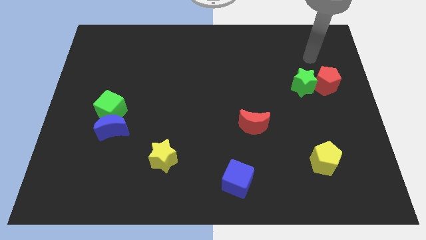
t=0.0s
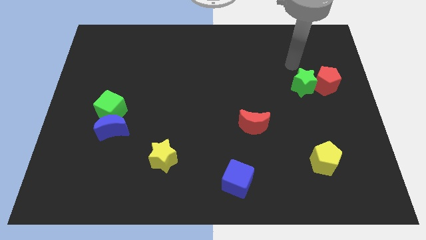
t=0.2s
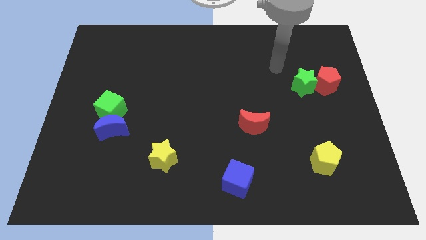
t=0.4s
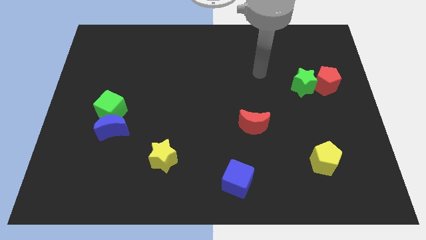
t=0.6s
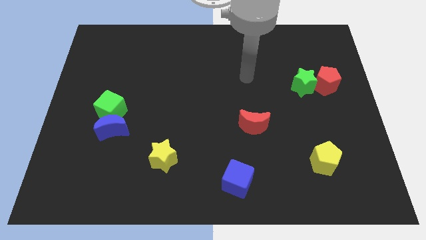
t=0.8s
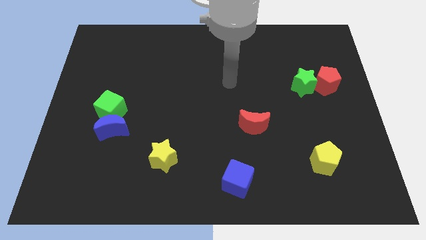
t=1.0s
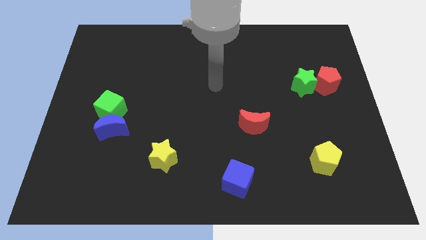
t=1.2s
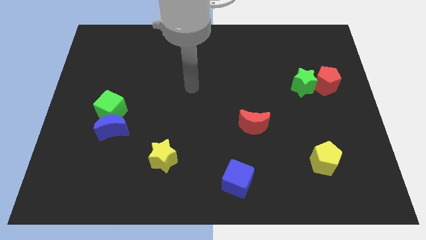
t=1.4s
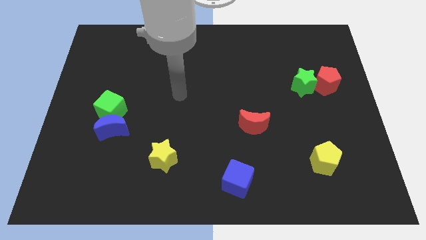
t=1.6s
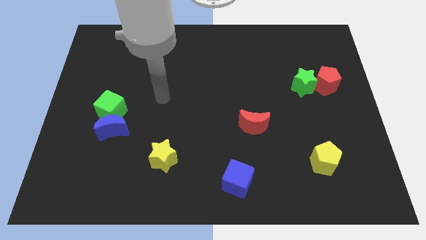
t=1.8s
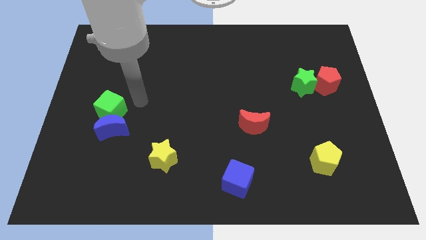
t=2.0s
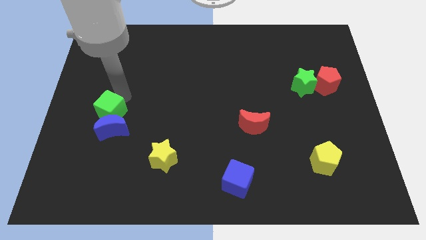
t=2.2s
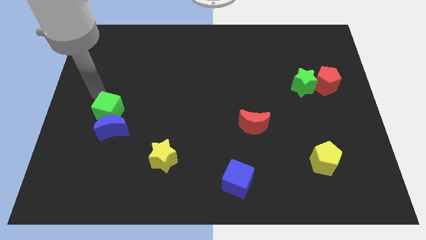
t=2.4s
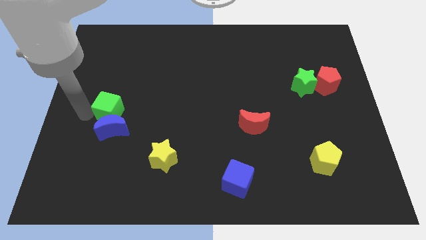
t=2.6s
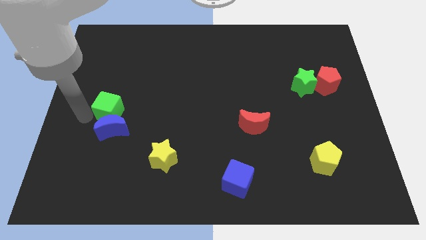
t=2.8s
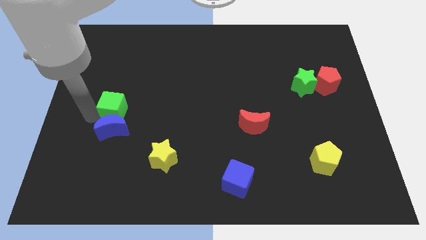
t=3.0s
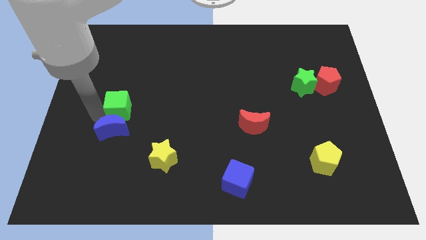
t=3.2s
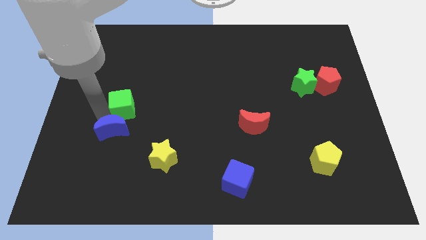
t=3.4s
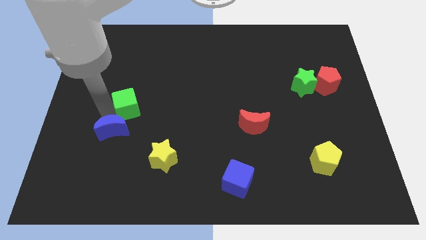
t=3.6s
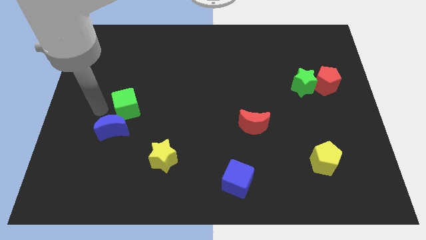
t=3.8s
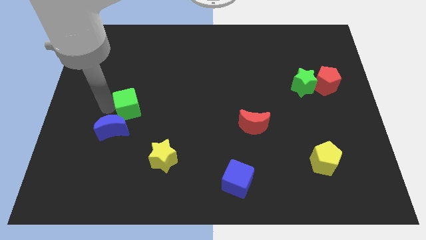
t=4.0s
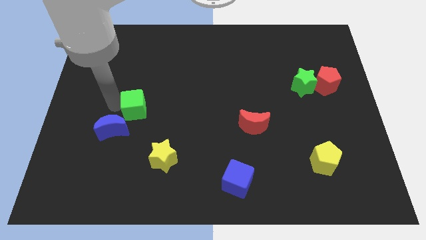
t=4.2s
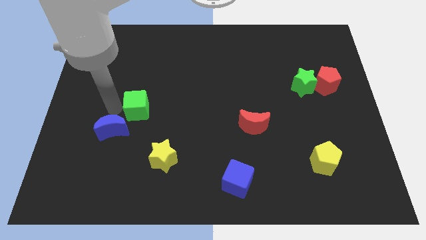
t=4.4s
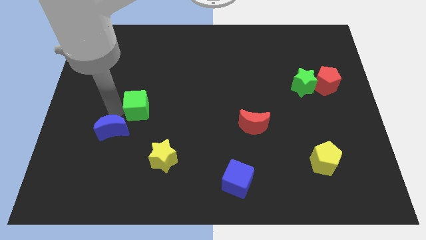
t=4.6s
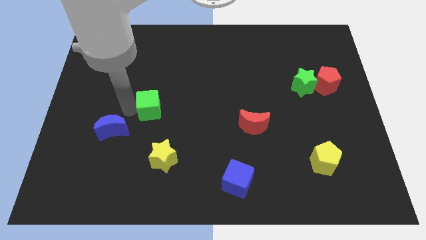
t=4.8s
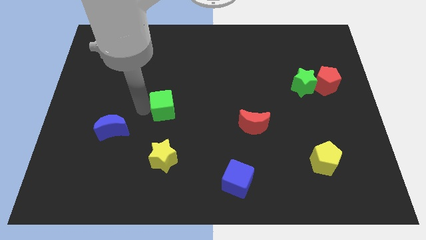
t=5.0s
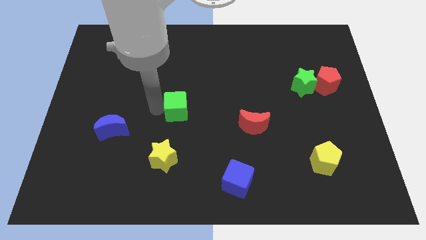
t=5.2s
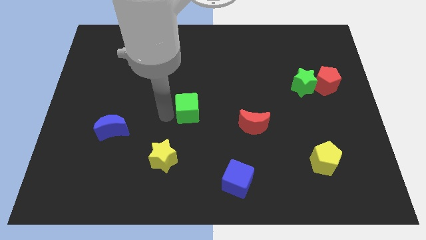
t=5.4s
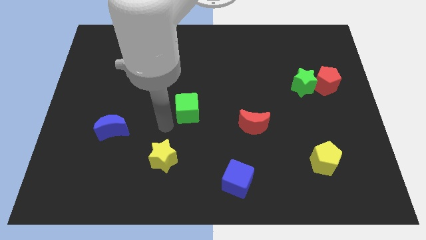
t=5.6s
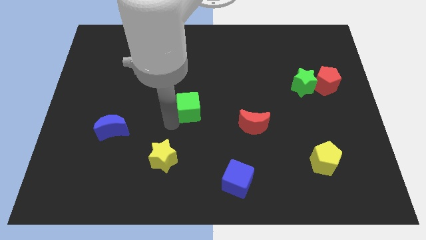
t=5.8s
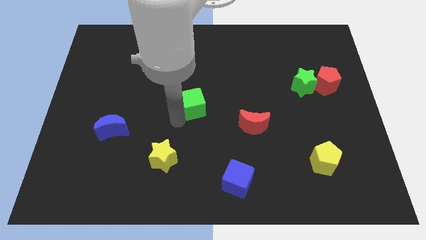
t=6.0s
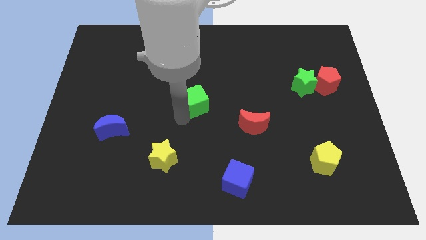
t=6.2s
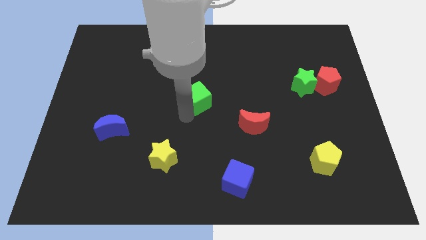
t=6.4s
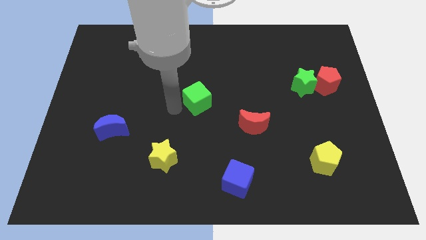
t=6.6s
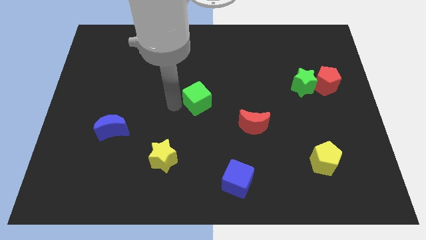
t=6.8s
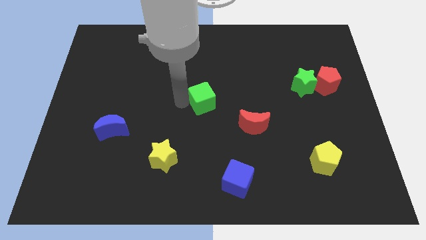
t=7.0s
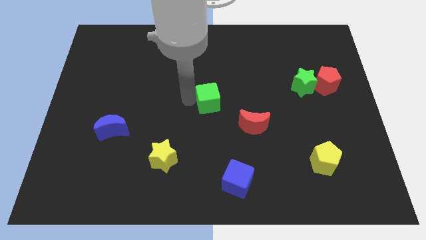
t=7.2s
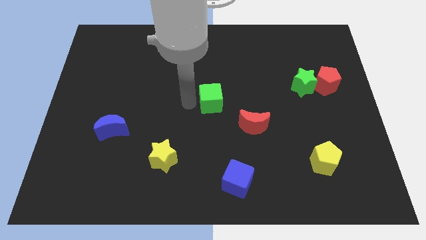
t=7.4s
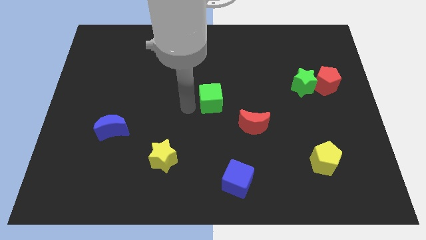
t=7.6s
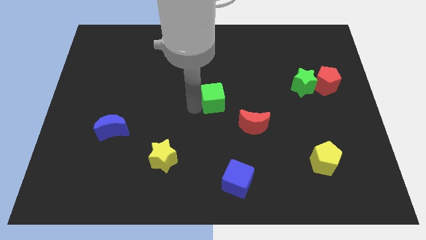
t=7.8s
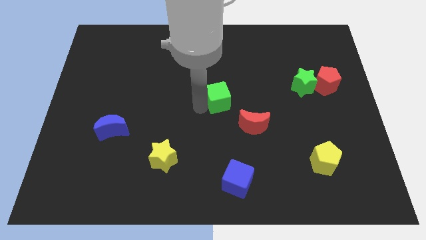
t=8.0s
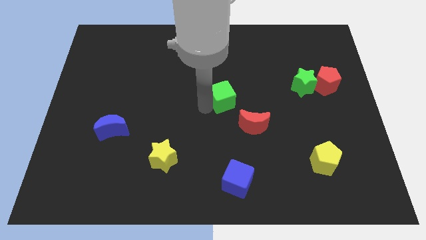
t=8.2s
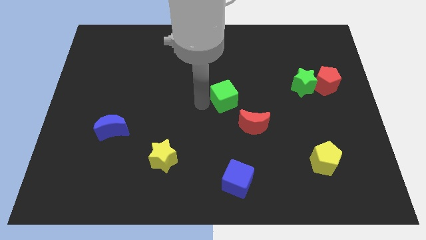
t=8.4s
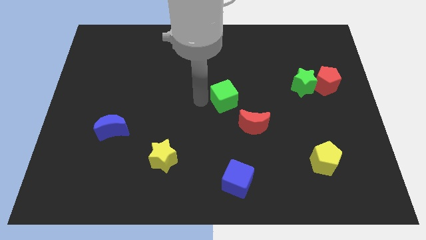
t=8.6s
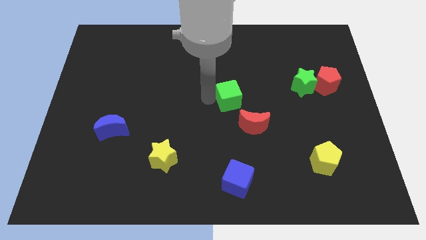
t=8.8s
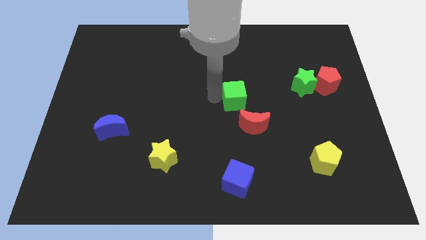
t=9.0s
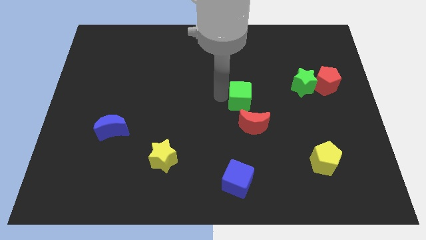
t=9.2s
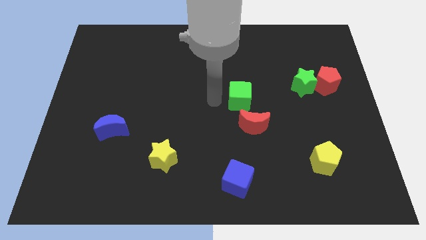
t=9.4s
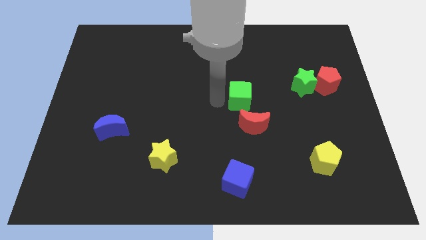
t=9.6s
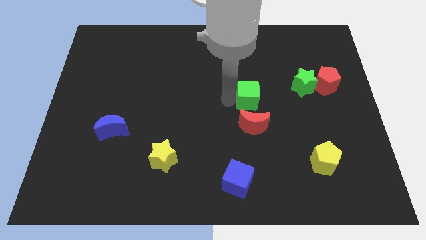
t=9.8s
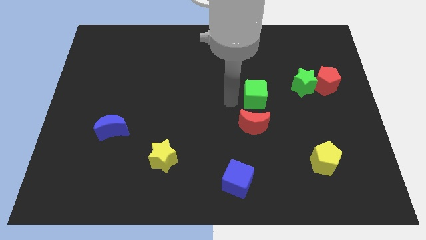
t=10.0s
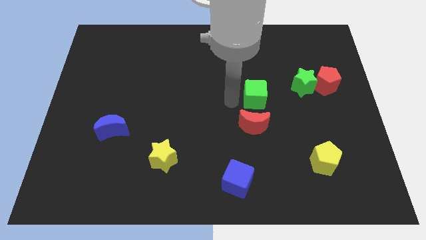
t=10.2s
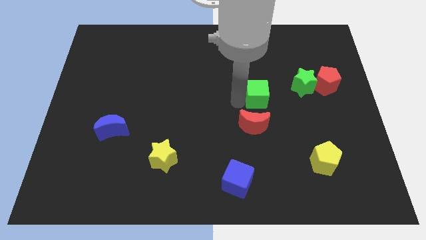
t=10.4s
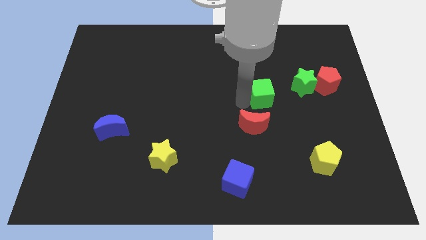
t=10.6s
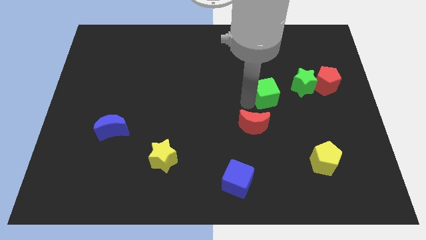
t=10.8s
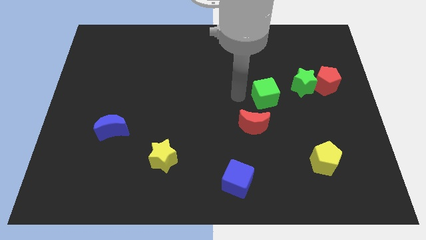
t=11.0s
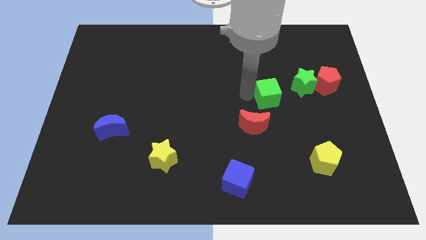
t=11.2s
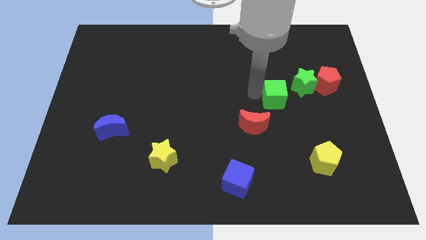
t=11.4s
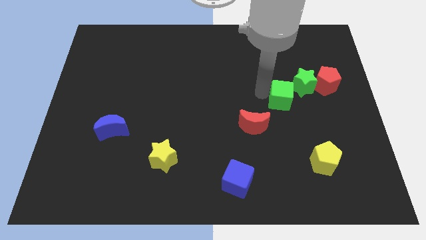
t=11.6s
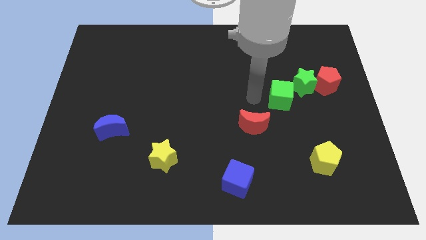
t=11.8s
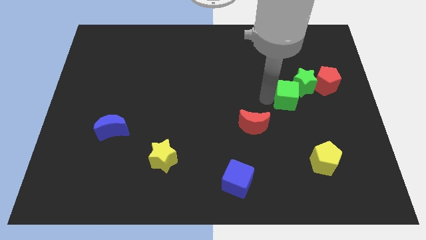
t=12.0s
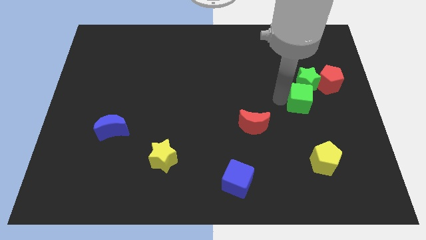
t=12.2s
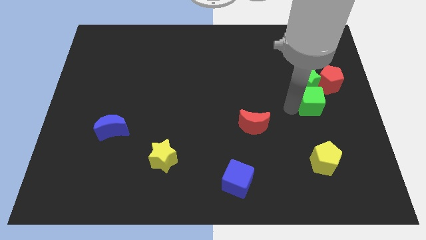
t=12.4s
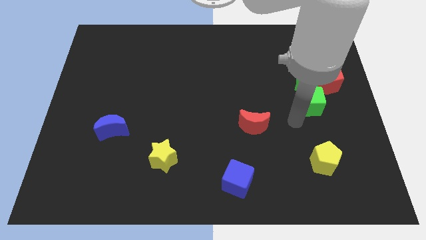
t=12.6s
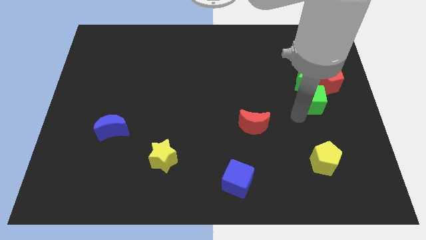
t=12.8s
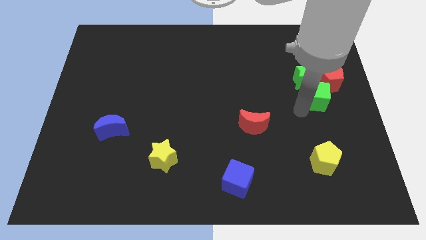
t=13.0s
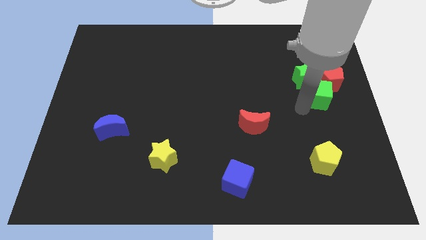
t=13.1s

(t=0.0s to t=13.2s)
push the green cube next to the red pentagon
